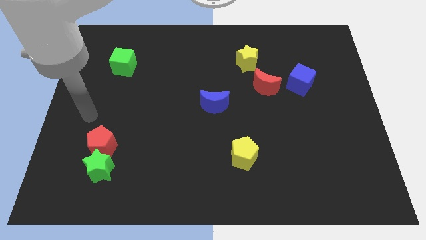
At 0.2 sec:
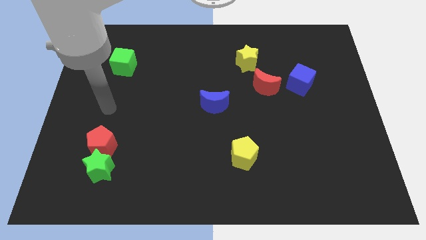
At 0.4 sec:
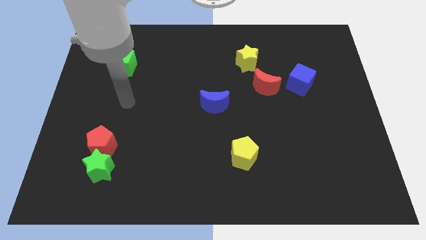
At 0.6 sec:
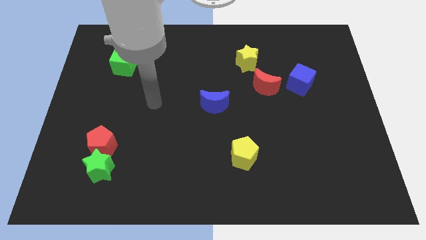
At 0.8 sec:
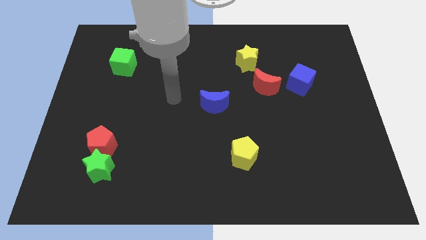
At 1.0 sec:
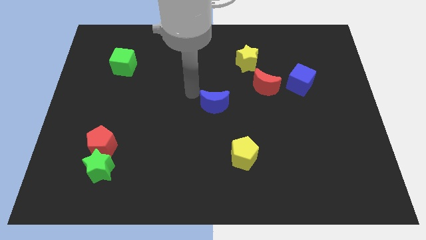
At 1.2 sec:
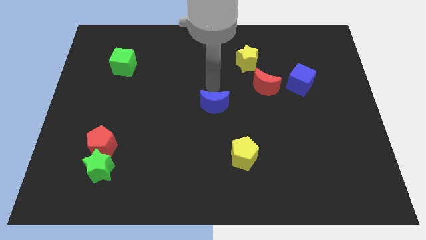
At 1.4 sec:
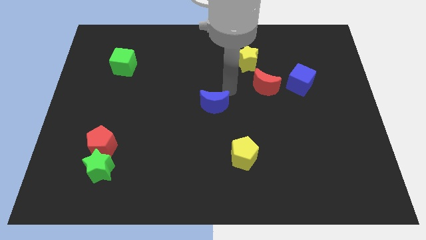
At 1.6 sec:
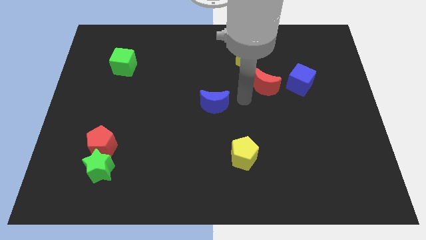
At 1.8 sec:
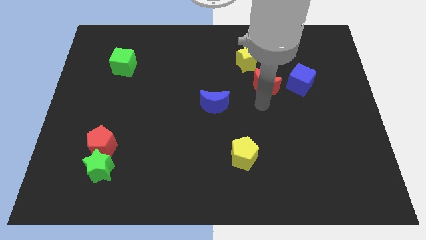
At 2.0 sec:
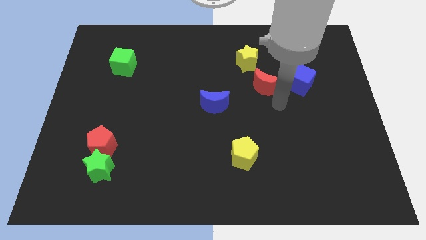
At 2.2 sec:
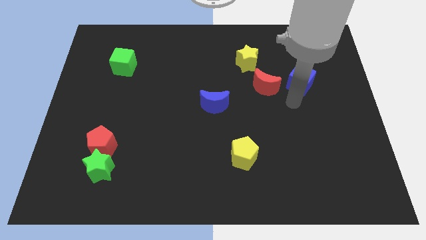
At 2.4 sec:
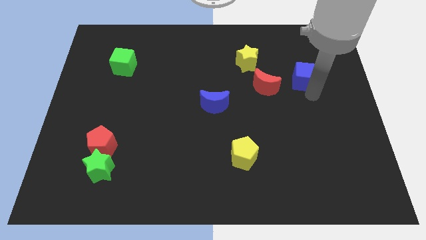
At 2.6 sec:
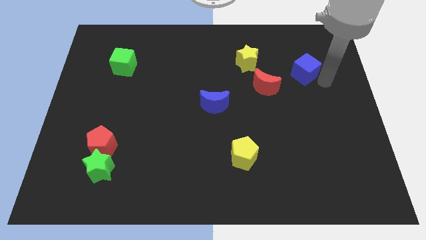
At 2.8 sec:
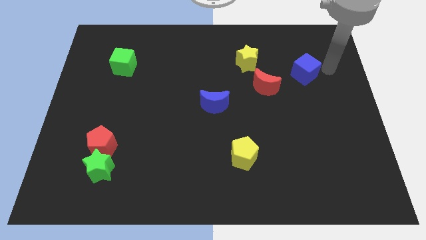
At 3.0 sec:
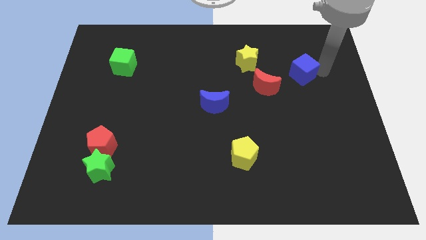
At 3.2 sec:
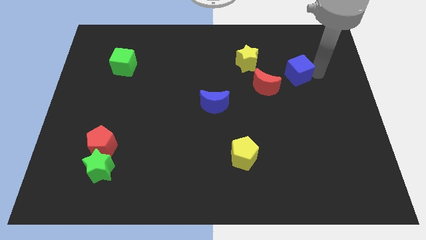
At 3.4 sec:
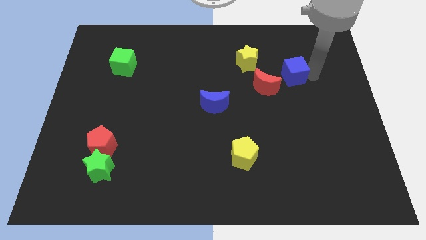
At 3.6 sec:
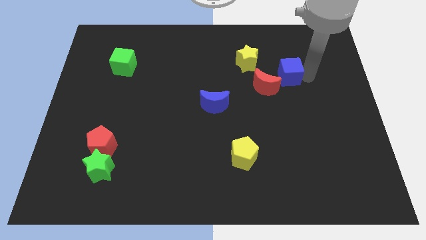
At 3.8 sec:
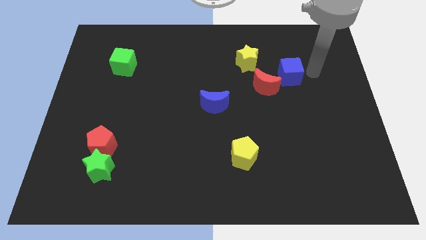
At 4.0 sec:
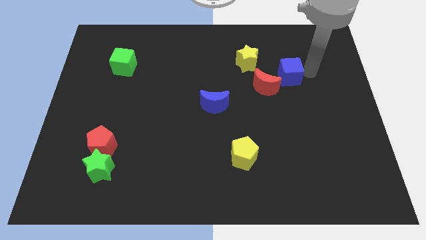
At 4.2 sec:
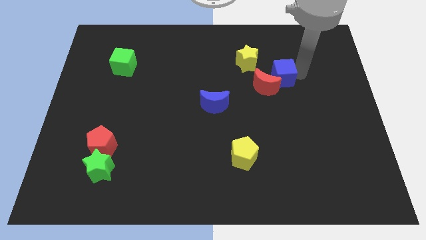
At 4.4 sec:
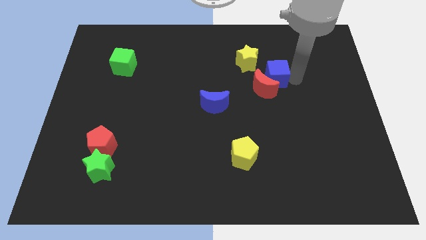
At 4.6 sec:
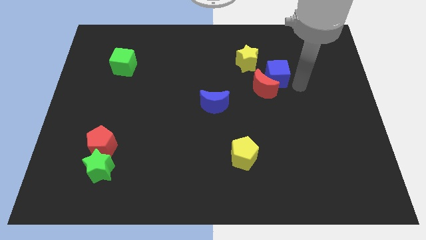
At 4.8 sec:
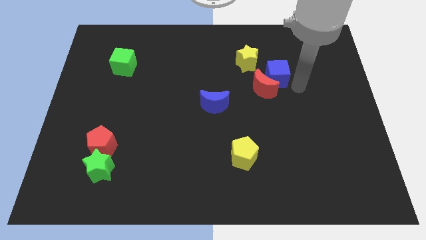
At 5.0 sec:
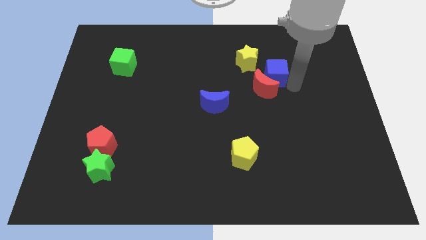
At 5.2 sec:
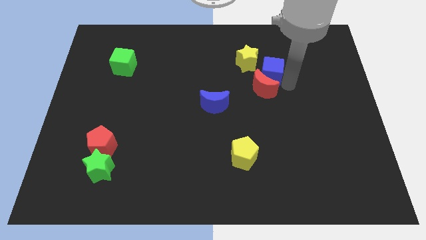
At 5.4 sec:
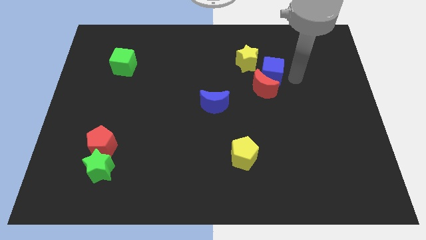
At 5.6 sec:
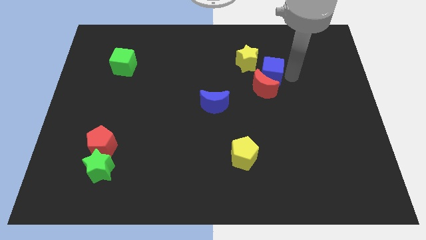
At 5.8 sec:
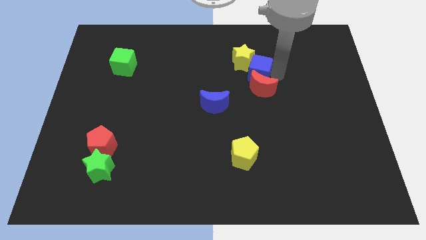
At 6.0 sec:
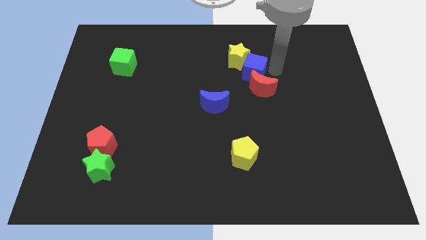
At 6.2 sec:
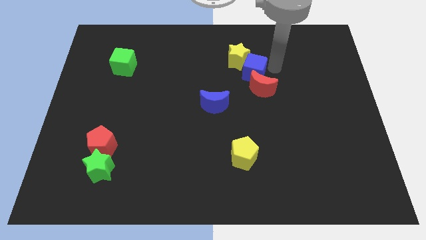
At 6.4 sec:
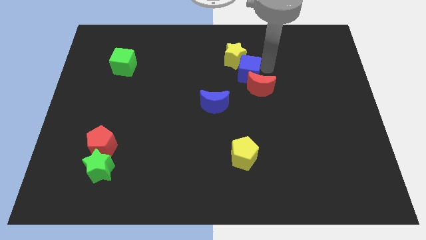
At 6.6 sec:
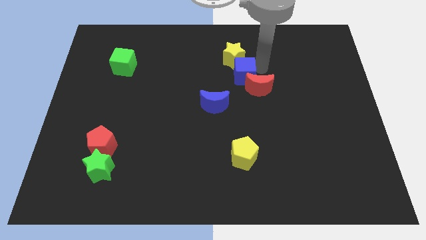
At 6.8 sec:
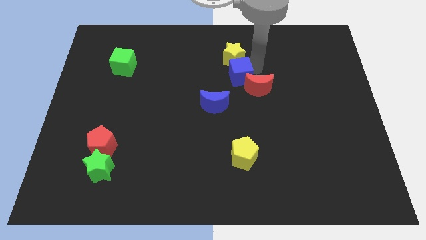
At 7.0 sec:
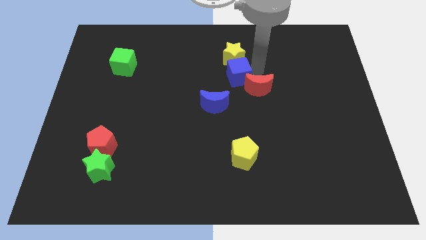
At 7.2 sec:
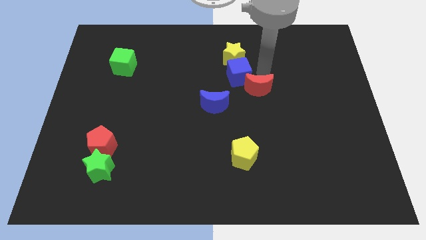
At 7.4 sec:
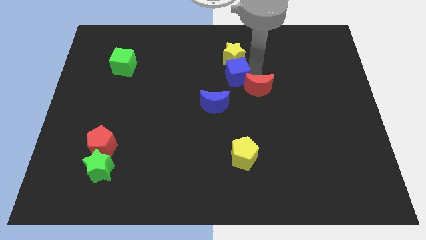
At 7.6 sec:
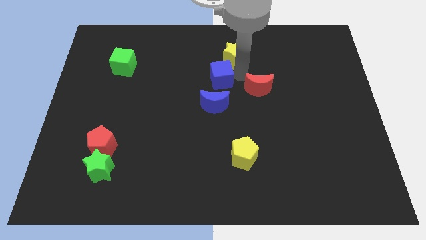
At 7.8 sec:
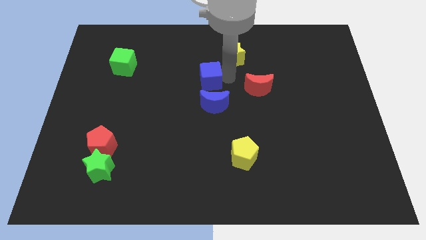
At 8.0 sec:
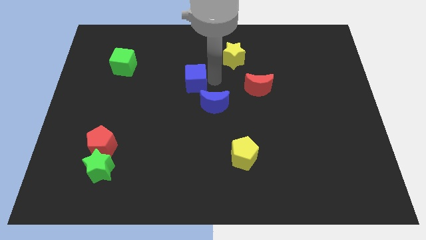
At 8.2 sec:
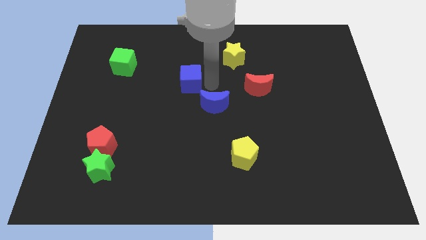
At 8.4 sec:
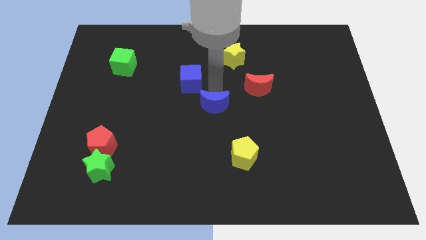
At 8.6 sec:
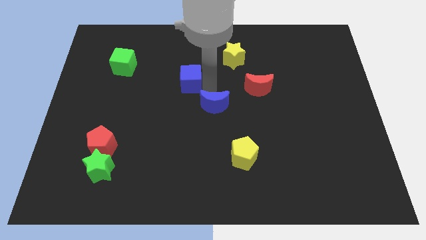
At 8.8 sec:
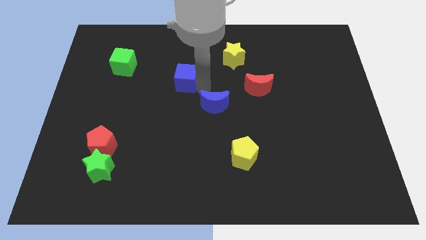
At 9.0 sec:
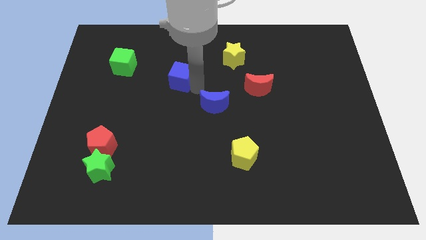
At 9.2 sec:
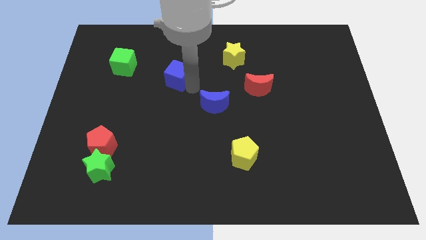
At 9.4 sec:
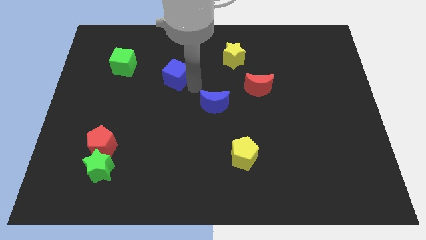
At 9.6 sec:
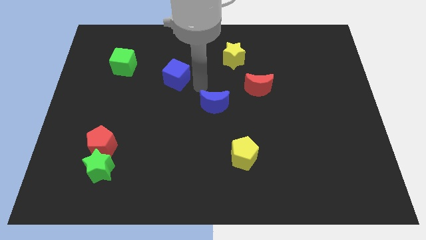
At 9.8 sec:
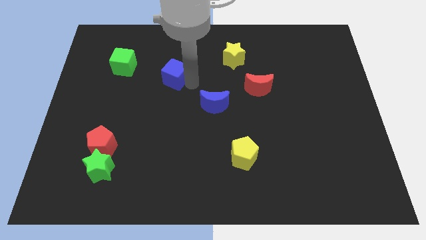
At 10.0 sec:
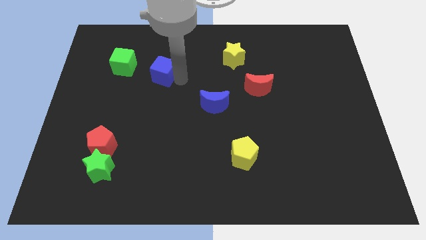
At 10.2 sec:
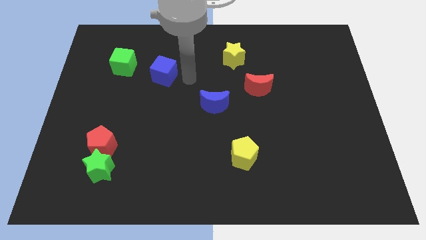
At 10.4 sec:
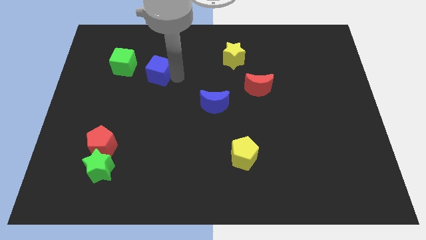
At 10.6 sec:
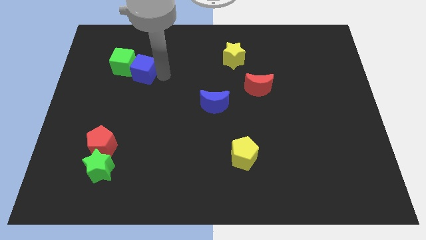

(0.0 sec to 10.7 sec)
put the blue cube to the green cube

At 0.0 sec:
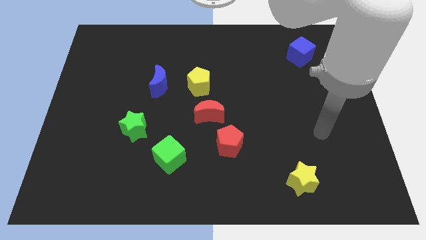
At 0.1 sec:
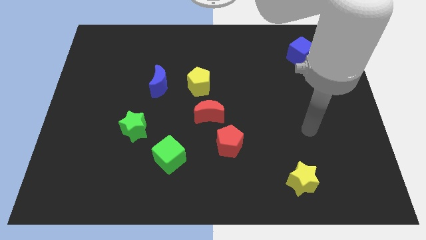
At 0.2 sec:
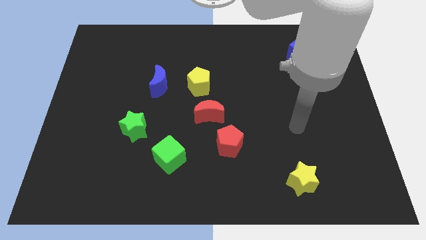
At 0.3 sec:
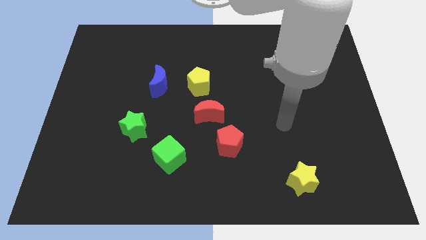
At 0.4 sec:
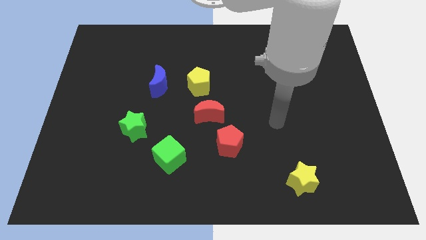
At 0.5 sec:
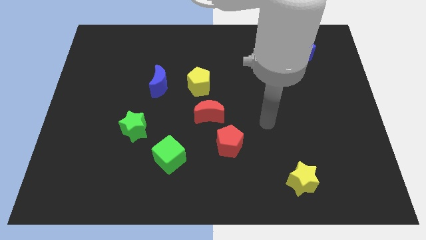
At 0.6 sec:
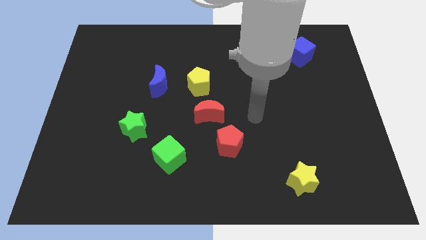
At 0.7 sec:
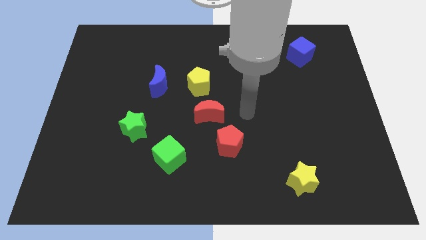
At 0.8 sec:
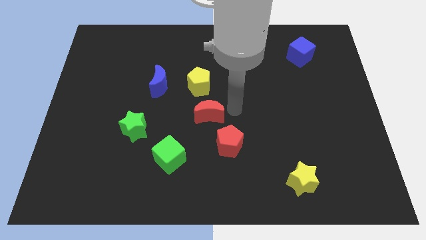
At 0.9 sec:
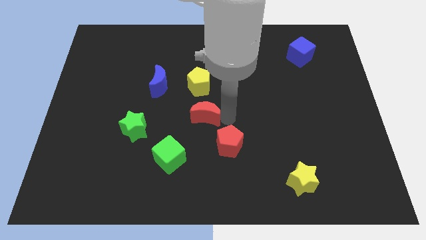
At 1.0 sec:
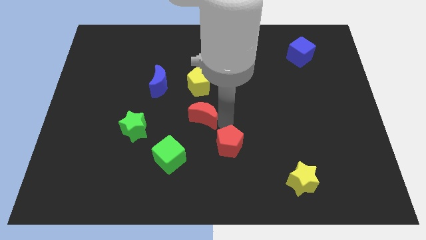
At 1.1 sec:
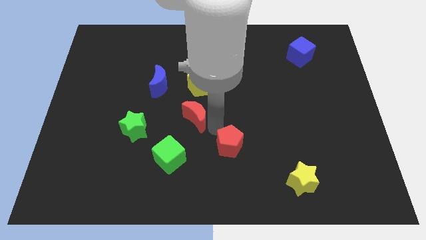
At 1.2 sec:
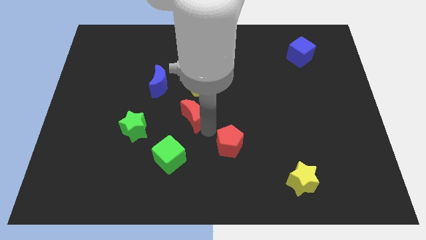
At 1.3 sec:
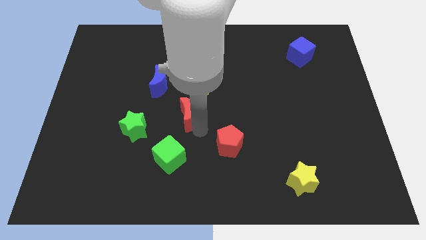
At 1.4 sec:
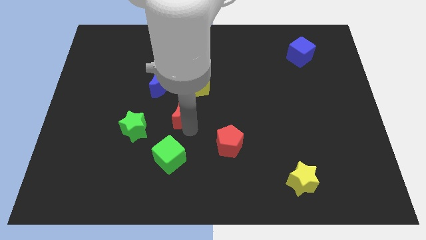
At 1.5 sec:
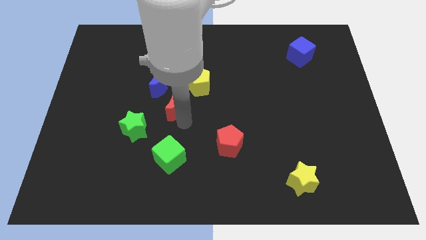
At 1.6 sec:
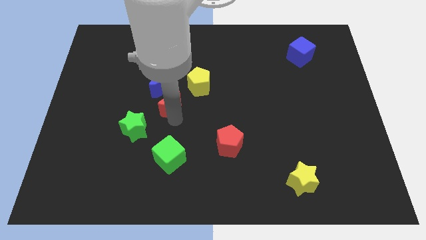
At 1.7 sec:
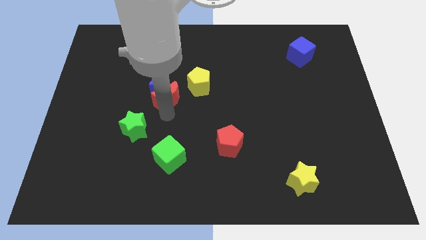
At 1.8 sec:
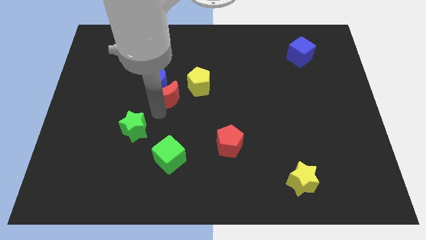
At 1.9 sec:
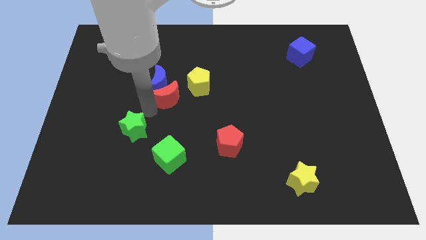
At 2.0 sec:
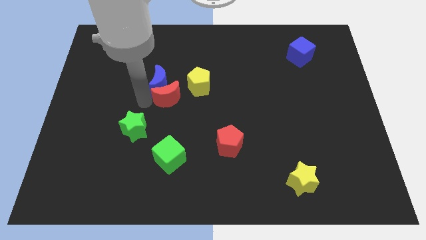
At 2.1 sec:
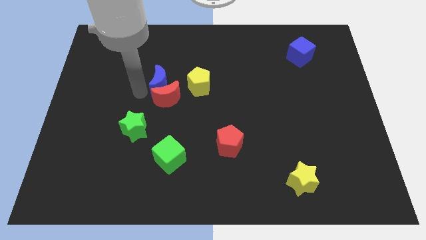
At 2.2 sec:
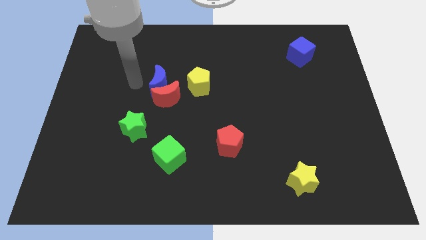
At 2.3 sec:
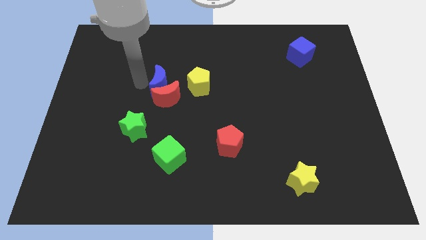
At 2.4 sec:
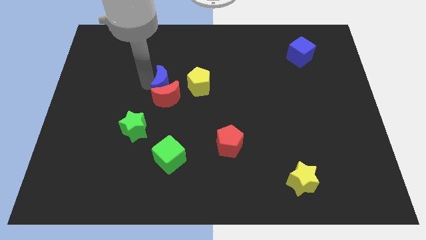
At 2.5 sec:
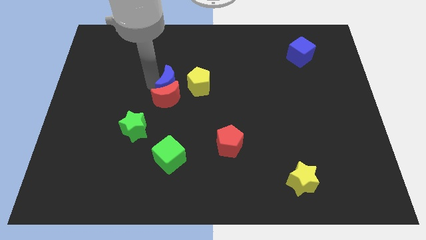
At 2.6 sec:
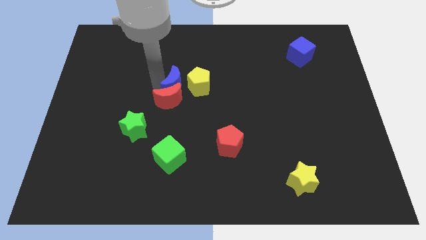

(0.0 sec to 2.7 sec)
push the blue moon to the yellow pentagon
